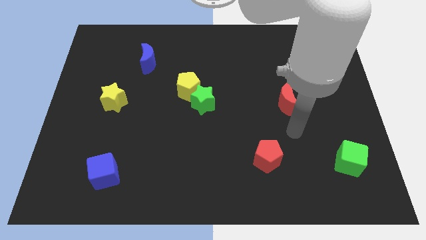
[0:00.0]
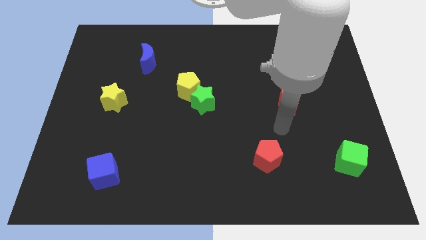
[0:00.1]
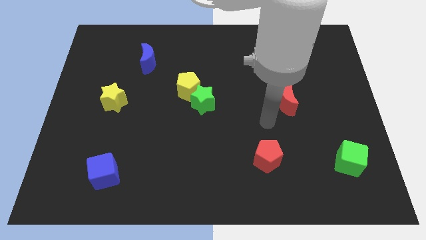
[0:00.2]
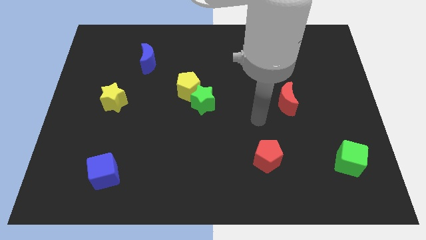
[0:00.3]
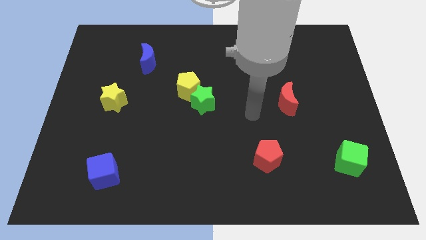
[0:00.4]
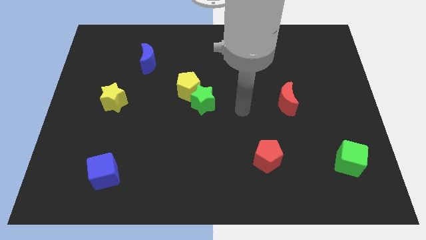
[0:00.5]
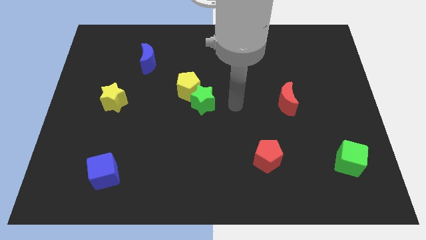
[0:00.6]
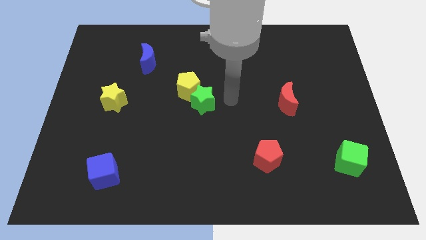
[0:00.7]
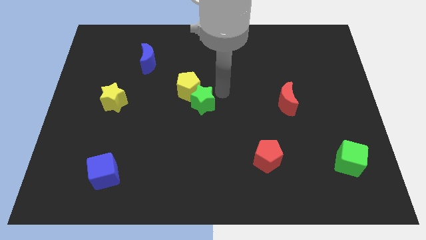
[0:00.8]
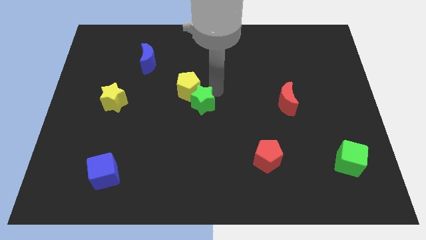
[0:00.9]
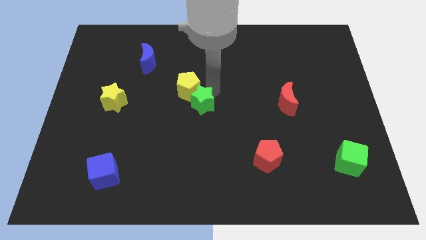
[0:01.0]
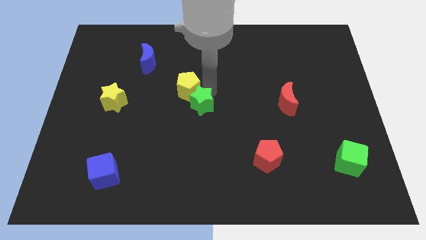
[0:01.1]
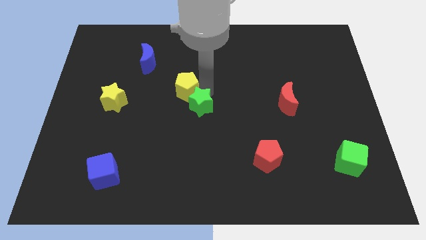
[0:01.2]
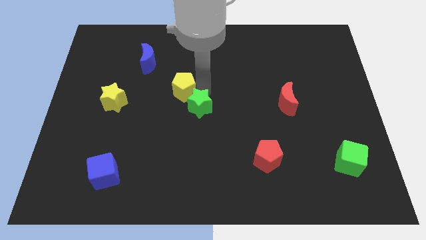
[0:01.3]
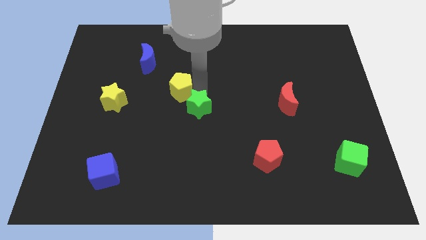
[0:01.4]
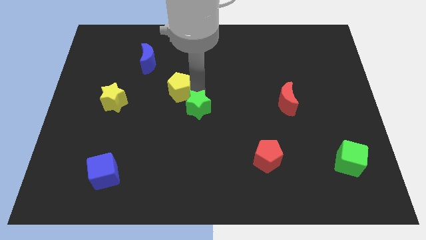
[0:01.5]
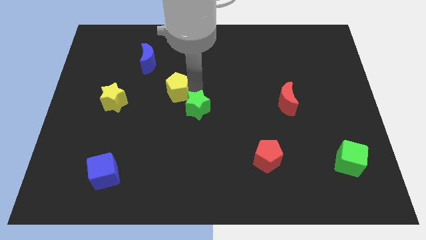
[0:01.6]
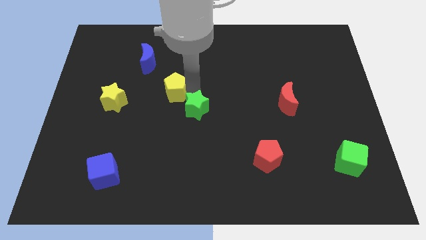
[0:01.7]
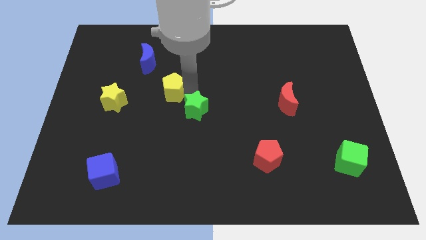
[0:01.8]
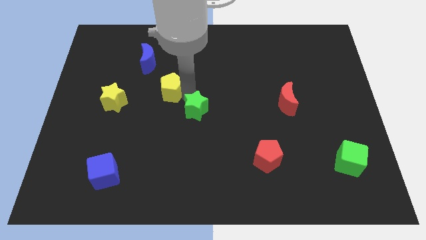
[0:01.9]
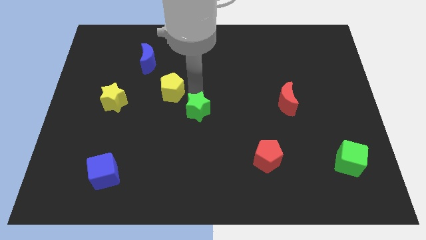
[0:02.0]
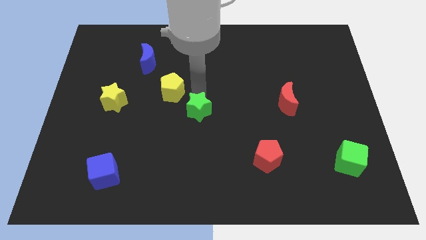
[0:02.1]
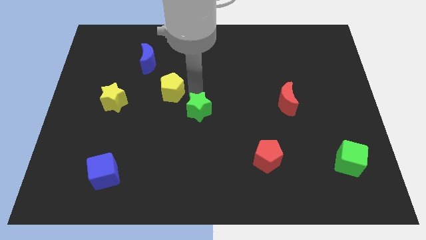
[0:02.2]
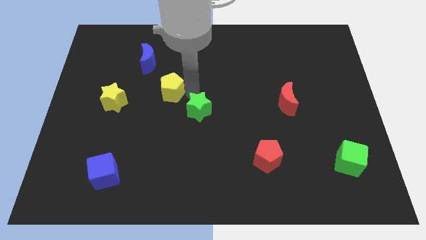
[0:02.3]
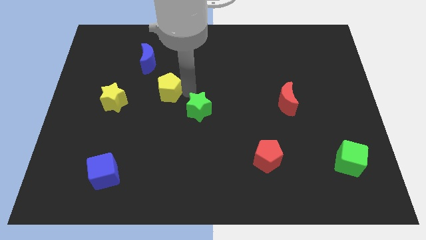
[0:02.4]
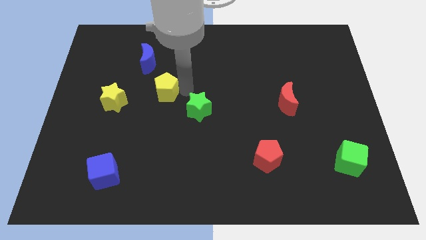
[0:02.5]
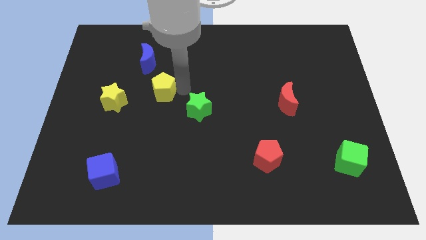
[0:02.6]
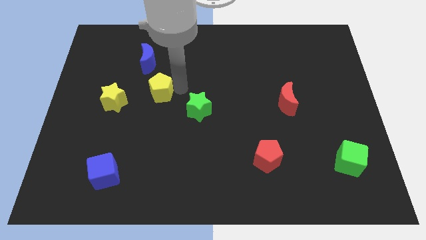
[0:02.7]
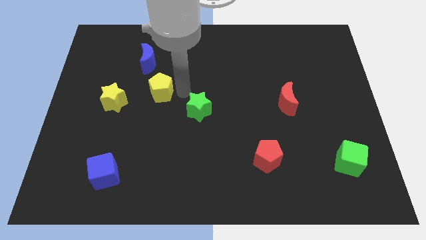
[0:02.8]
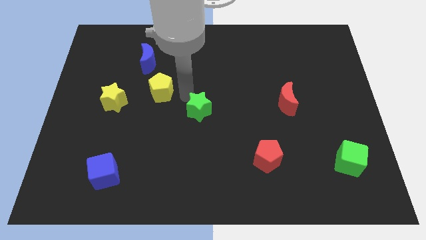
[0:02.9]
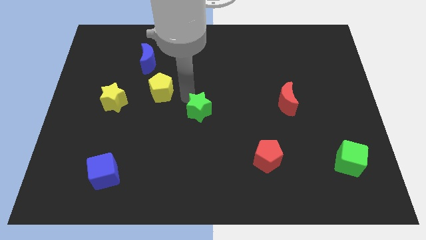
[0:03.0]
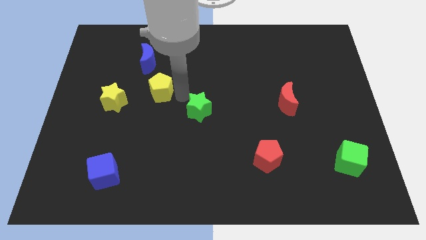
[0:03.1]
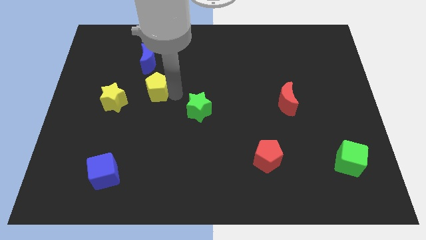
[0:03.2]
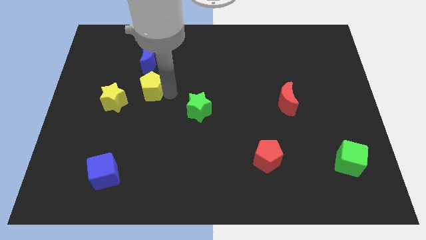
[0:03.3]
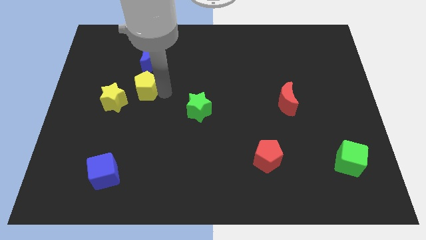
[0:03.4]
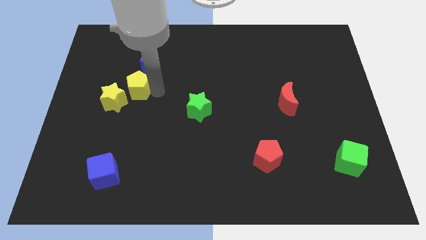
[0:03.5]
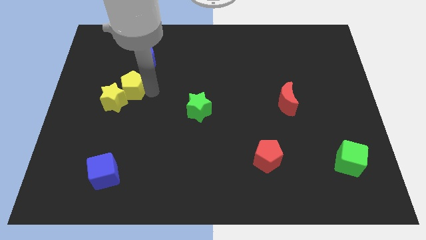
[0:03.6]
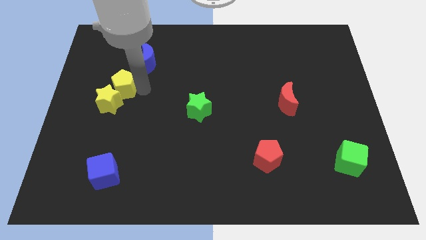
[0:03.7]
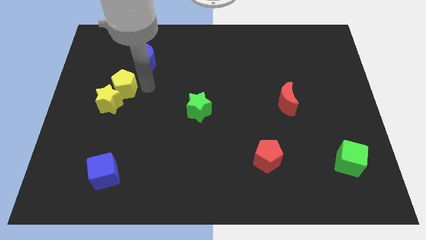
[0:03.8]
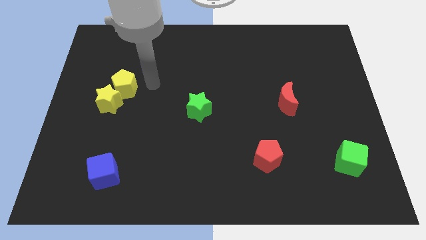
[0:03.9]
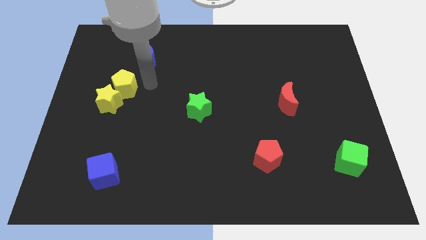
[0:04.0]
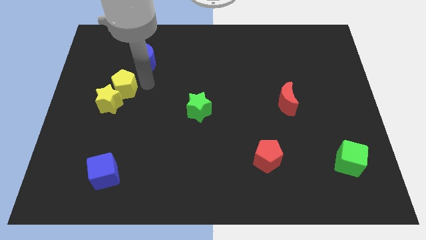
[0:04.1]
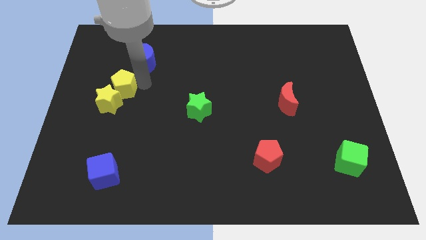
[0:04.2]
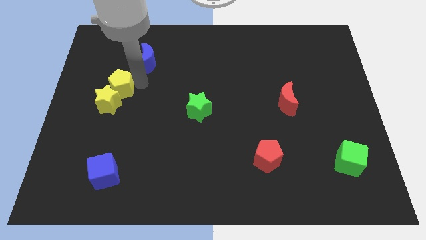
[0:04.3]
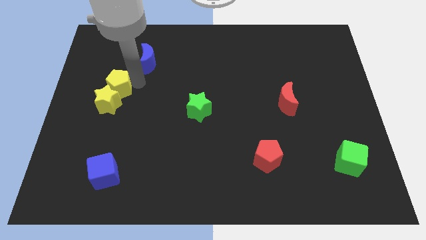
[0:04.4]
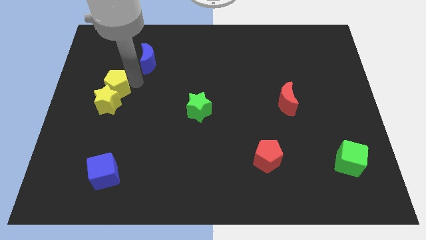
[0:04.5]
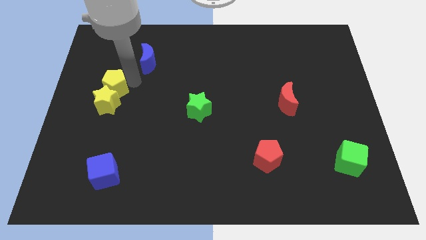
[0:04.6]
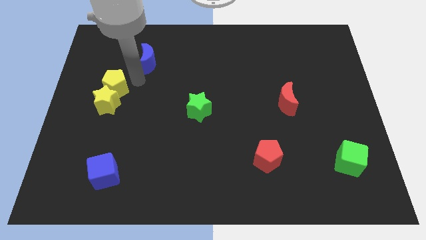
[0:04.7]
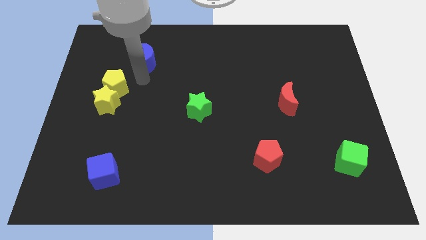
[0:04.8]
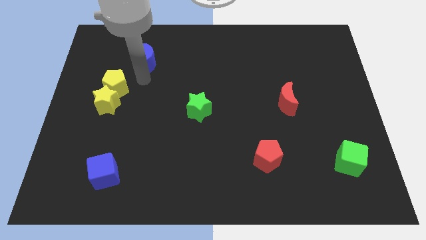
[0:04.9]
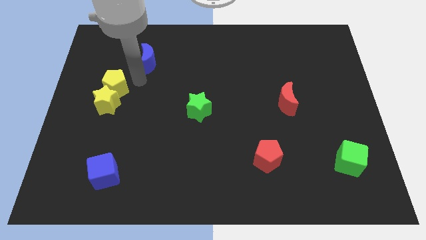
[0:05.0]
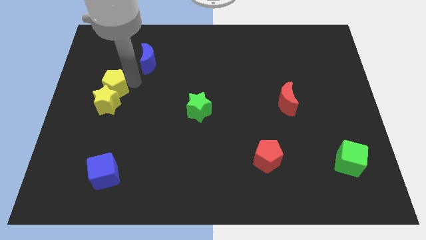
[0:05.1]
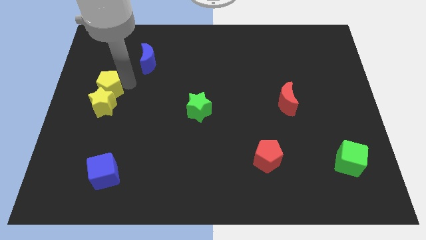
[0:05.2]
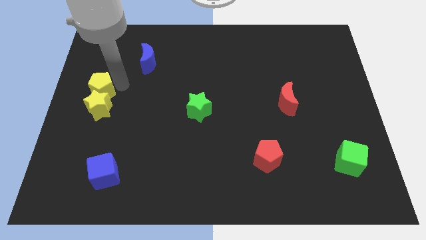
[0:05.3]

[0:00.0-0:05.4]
move the yellow pentagon to the center left
